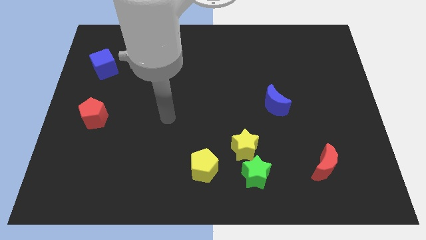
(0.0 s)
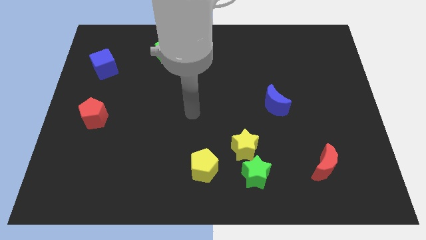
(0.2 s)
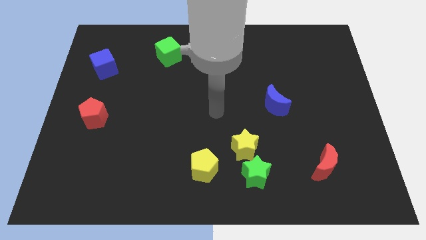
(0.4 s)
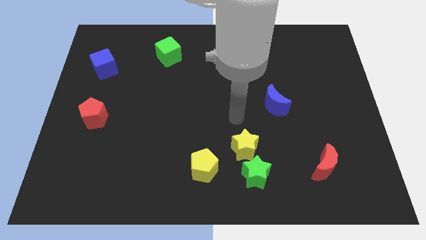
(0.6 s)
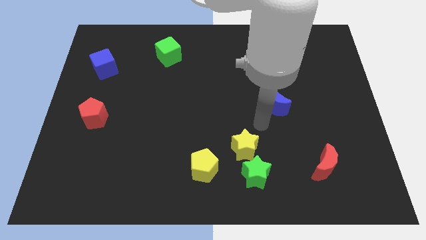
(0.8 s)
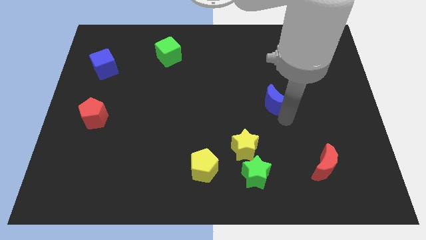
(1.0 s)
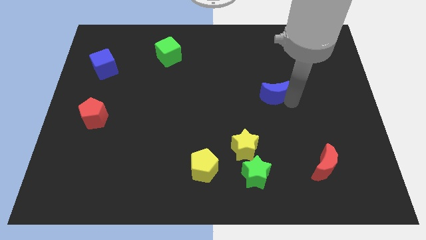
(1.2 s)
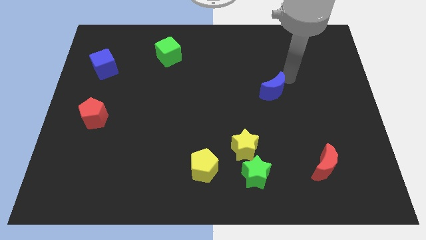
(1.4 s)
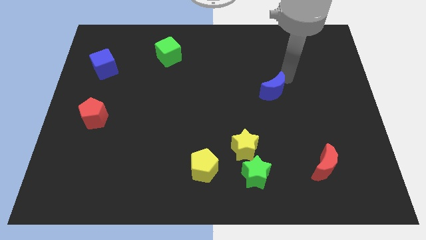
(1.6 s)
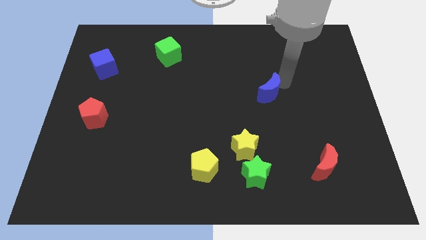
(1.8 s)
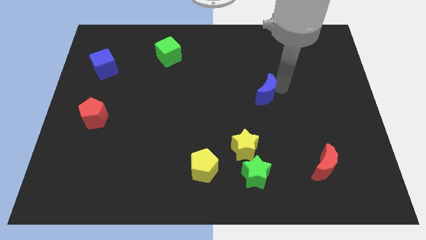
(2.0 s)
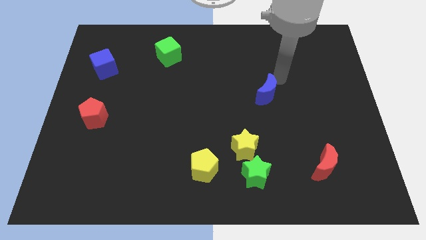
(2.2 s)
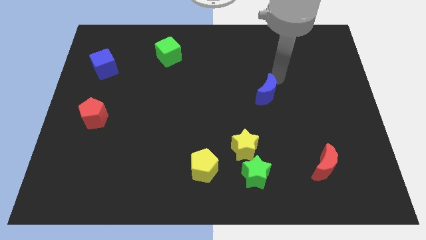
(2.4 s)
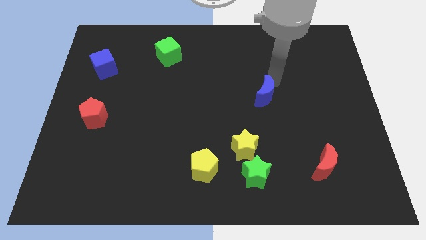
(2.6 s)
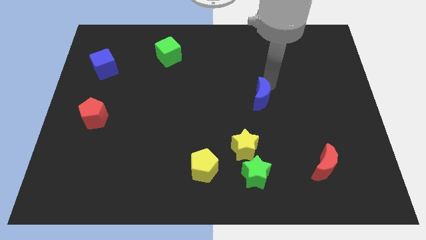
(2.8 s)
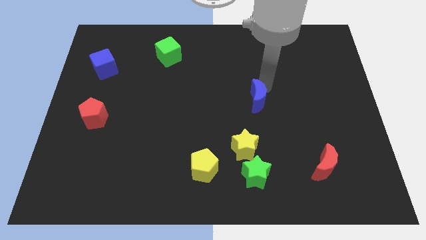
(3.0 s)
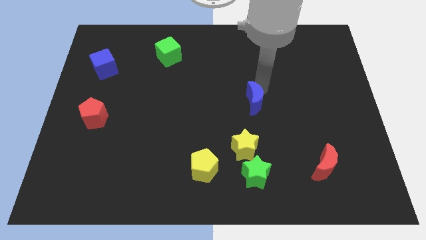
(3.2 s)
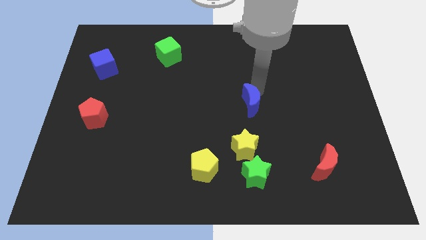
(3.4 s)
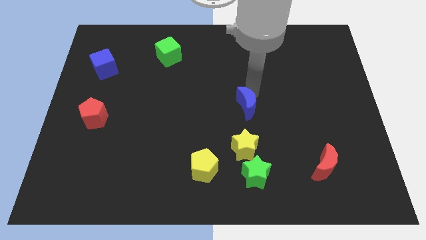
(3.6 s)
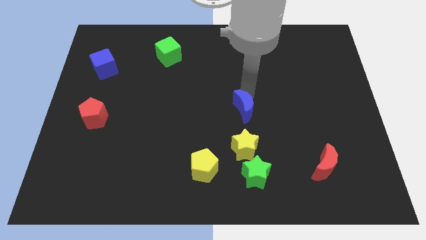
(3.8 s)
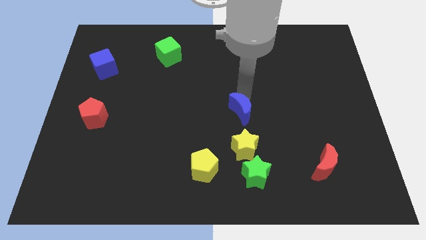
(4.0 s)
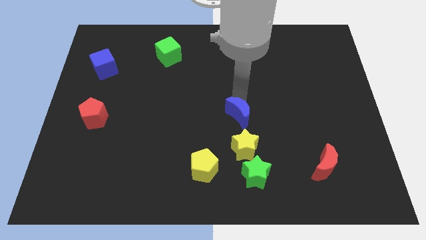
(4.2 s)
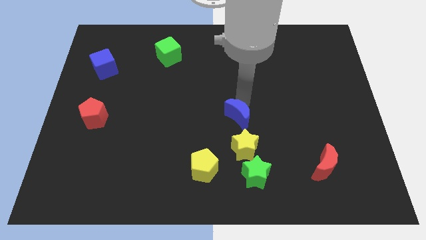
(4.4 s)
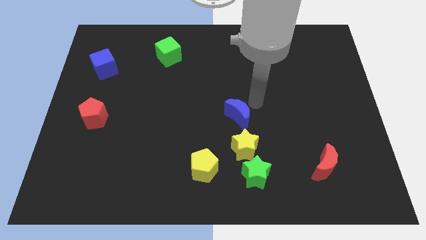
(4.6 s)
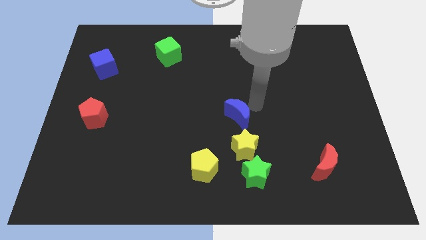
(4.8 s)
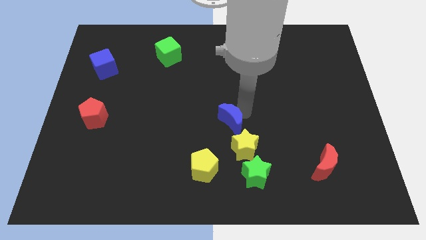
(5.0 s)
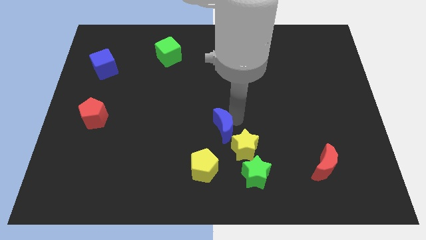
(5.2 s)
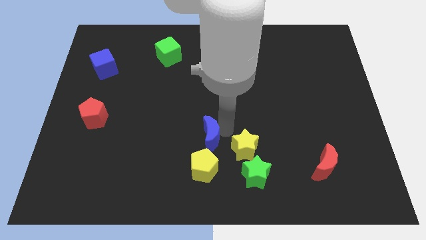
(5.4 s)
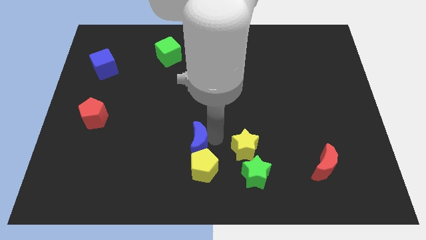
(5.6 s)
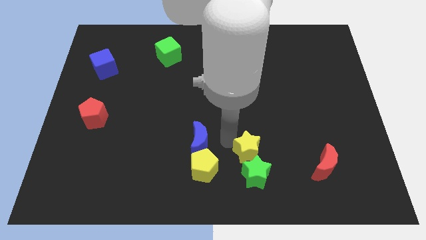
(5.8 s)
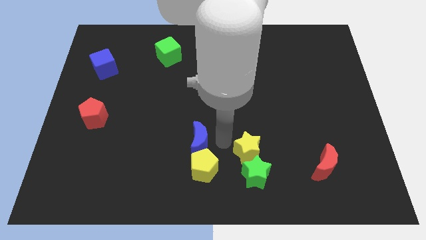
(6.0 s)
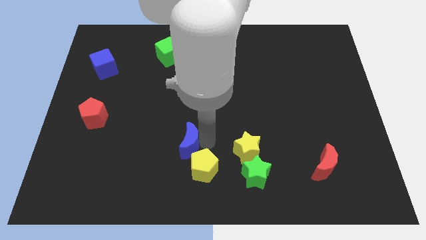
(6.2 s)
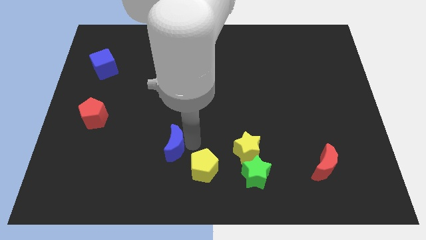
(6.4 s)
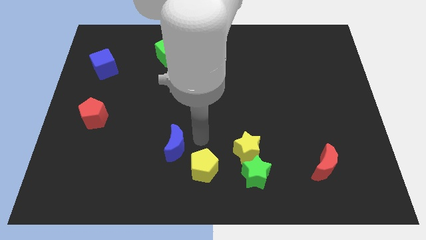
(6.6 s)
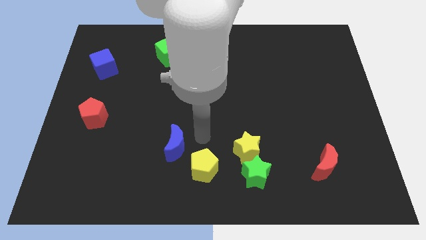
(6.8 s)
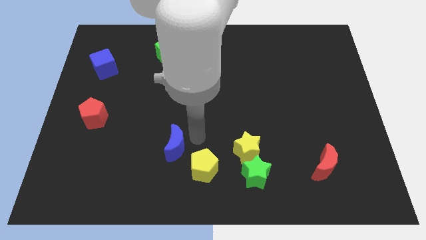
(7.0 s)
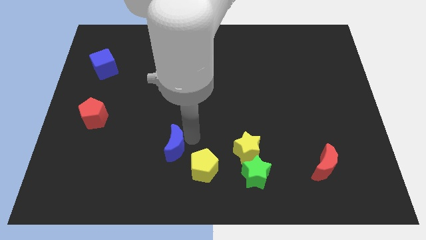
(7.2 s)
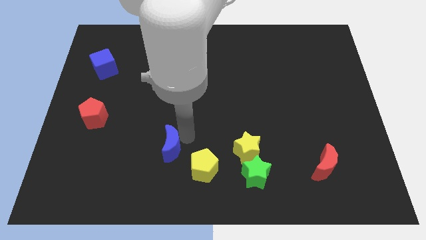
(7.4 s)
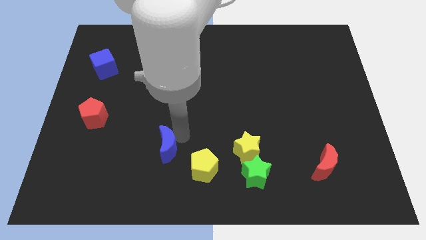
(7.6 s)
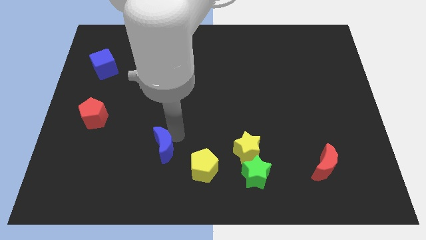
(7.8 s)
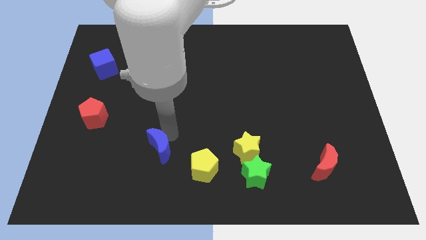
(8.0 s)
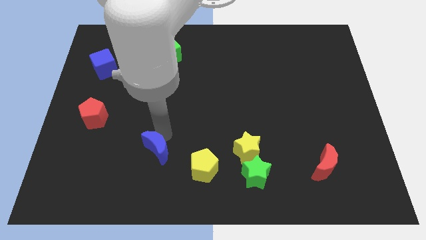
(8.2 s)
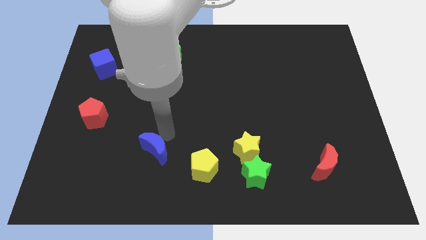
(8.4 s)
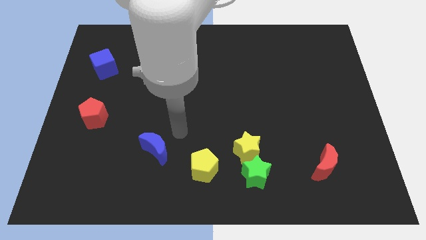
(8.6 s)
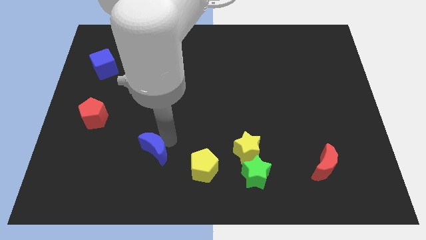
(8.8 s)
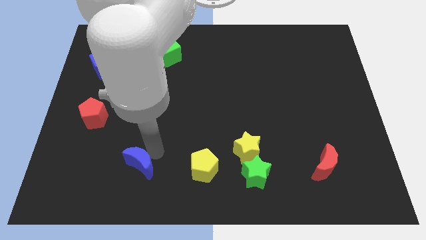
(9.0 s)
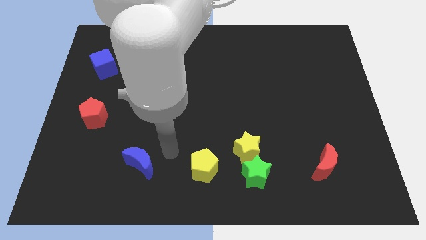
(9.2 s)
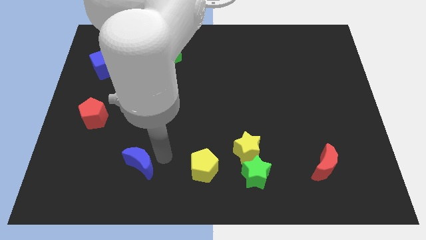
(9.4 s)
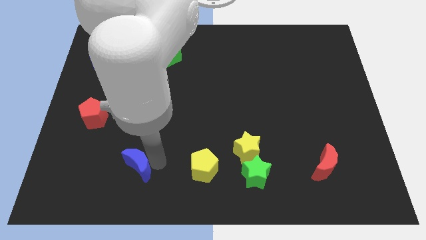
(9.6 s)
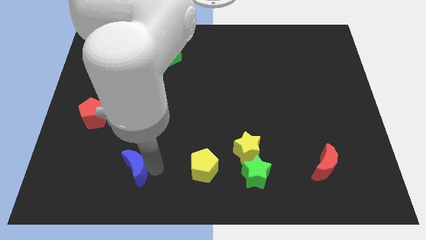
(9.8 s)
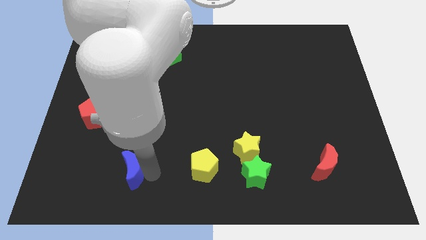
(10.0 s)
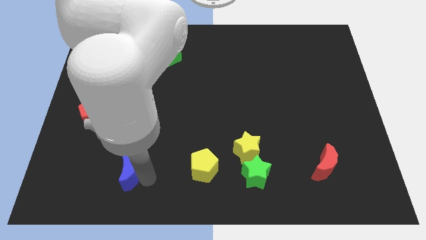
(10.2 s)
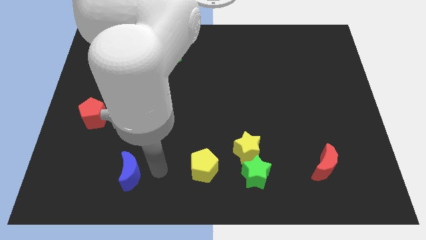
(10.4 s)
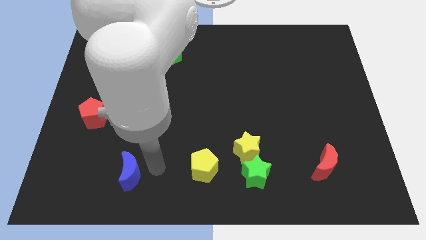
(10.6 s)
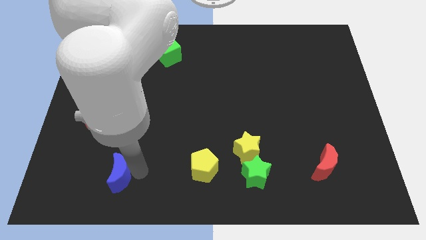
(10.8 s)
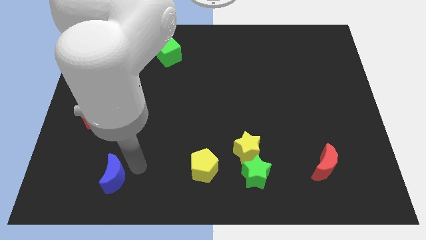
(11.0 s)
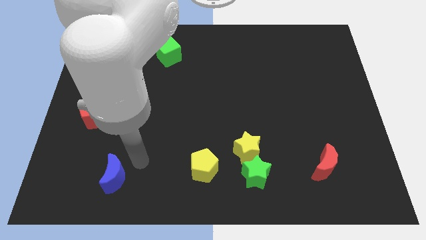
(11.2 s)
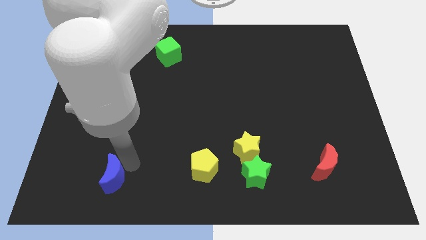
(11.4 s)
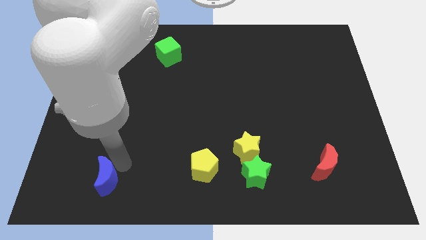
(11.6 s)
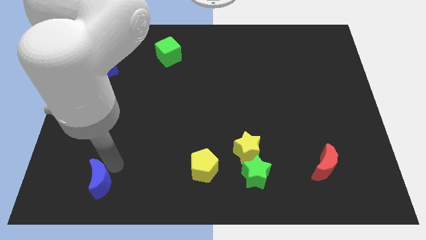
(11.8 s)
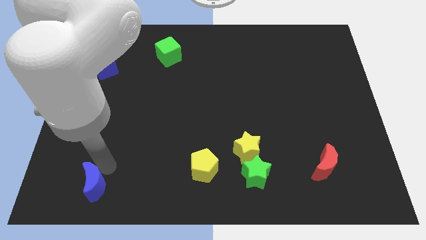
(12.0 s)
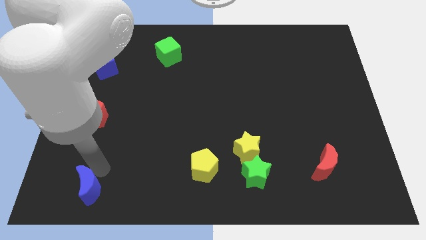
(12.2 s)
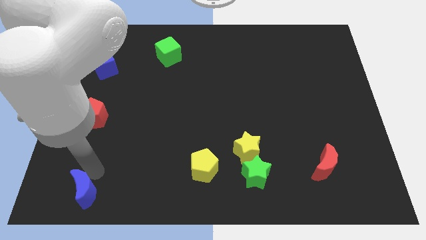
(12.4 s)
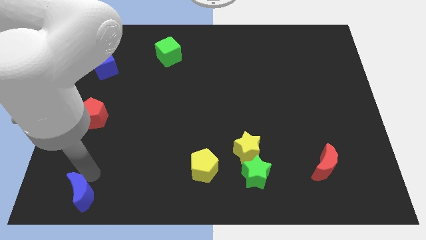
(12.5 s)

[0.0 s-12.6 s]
push the blue moon to the bottom left of the board
